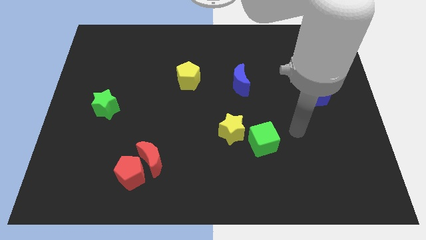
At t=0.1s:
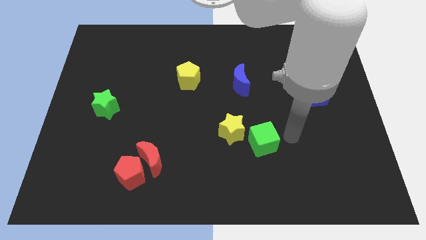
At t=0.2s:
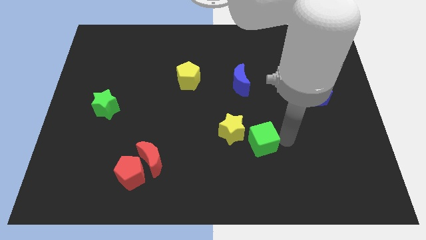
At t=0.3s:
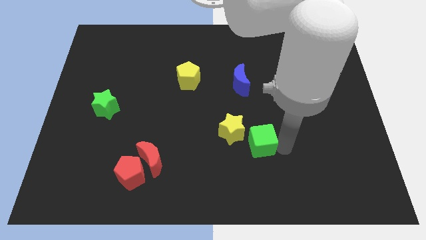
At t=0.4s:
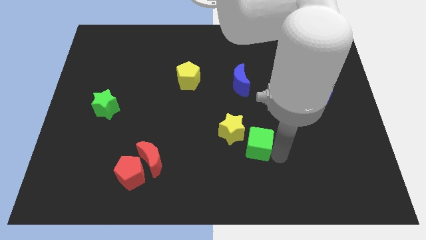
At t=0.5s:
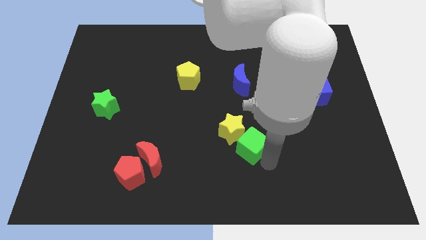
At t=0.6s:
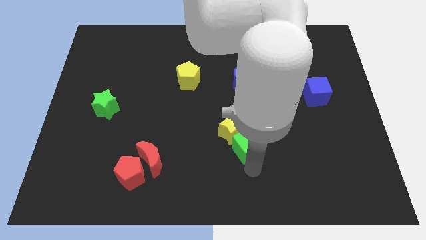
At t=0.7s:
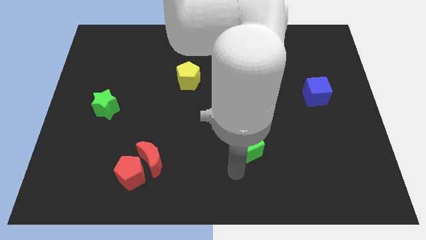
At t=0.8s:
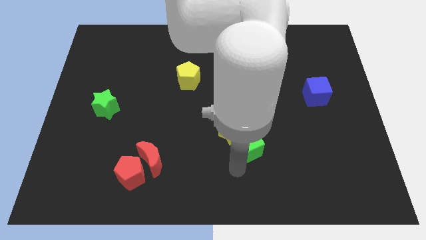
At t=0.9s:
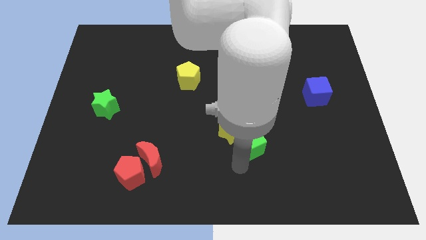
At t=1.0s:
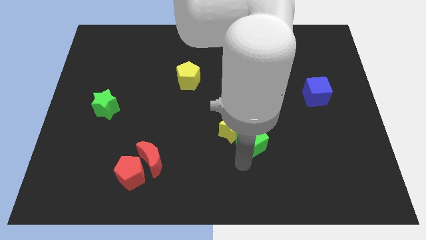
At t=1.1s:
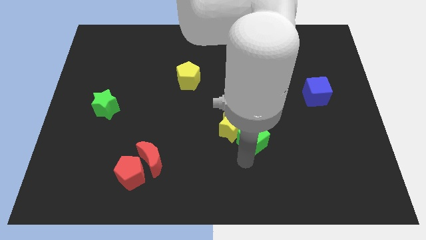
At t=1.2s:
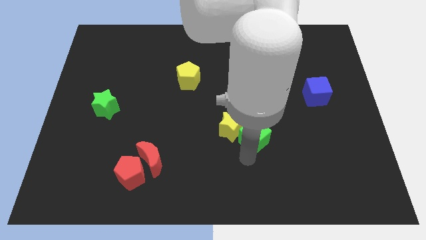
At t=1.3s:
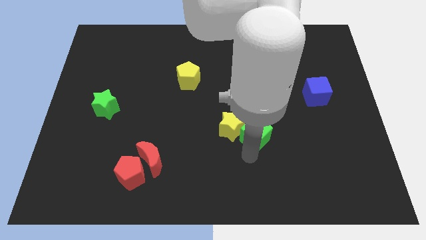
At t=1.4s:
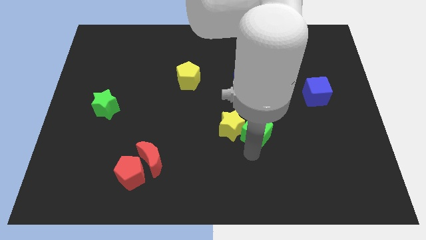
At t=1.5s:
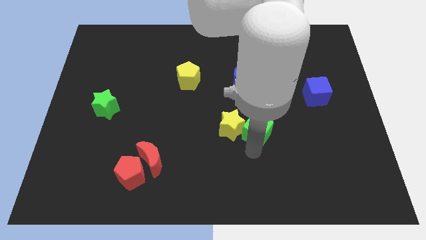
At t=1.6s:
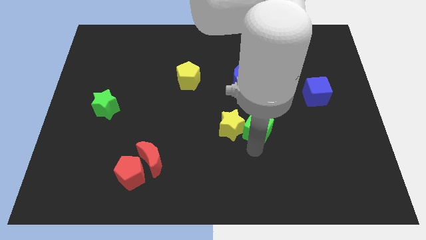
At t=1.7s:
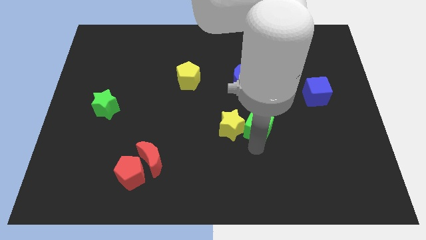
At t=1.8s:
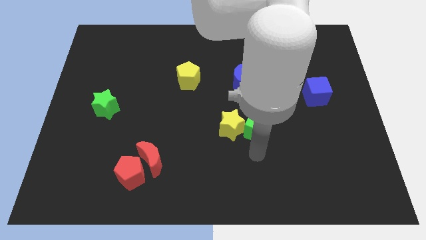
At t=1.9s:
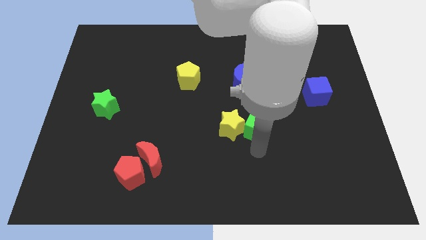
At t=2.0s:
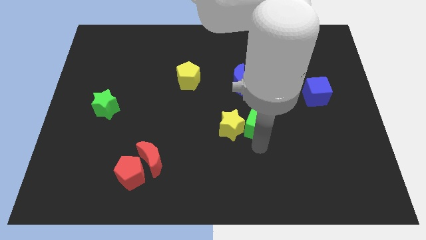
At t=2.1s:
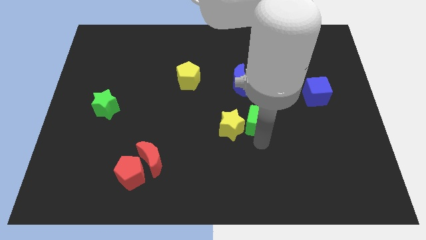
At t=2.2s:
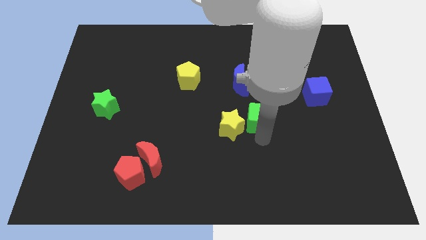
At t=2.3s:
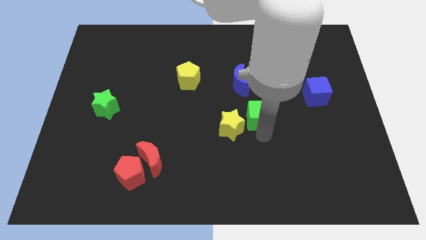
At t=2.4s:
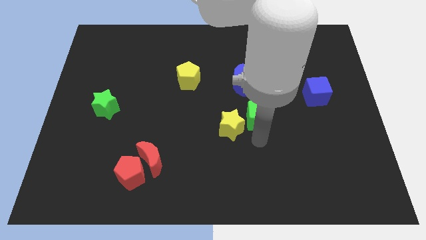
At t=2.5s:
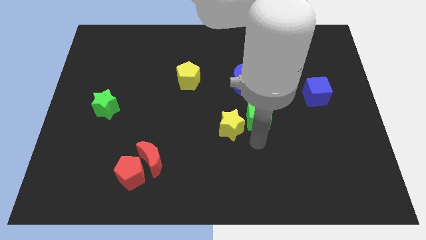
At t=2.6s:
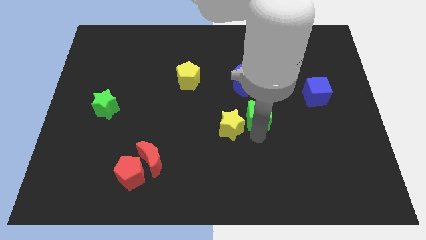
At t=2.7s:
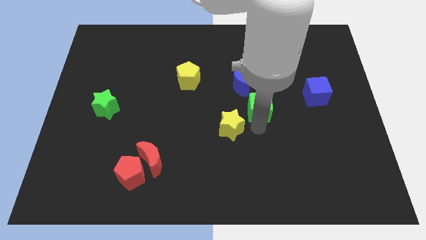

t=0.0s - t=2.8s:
slightly slide the green cube up

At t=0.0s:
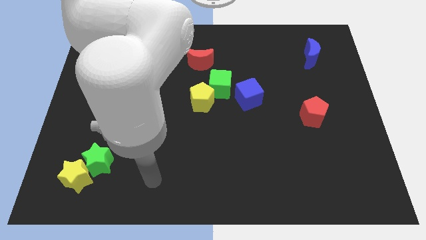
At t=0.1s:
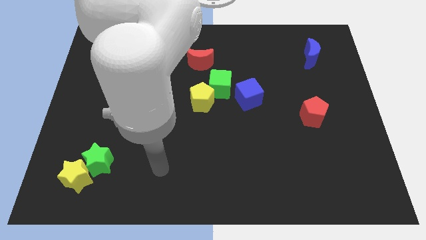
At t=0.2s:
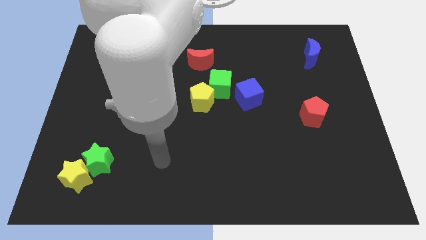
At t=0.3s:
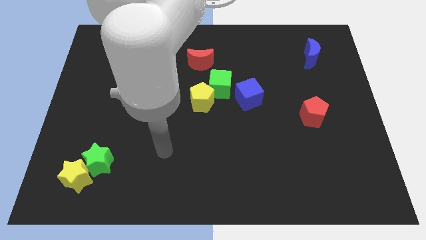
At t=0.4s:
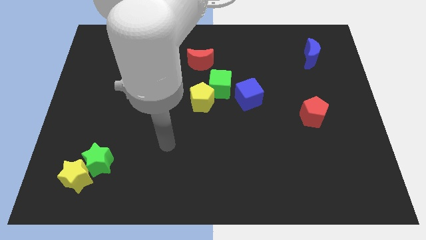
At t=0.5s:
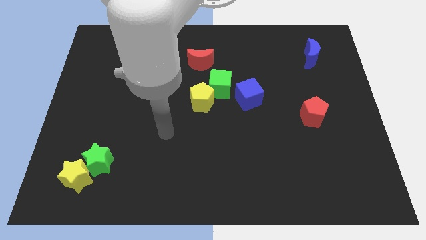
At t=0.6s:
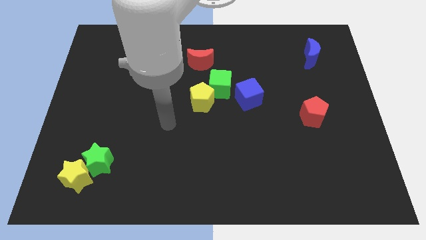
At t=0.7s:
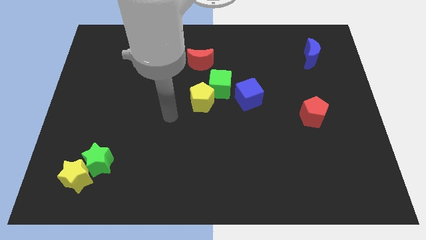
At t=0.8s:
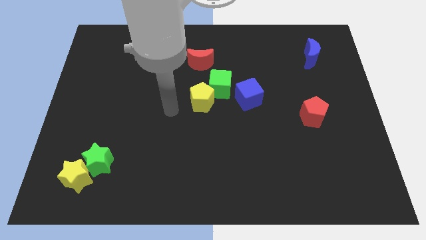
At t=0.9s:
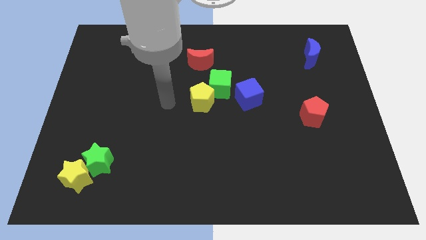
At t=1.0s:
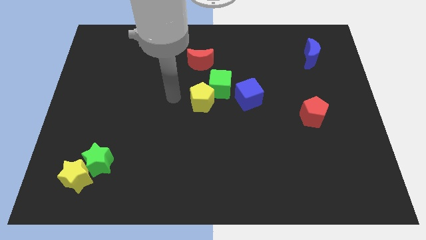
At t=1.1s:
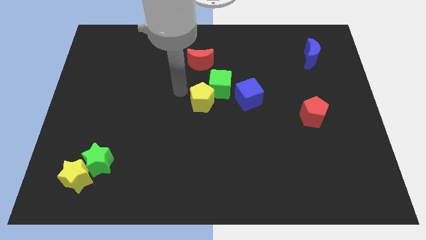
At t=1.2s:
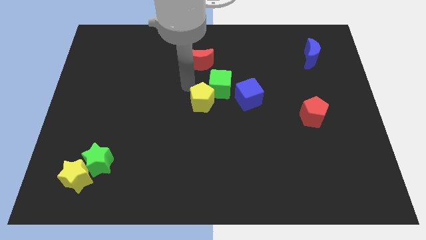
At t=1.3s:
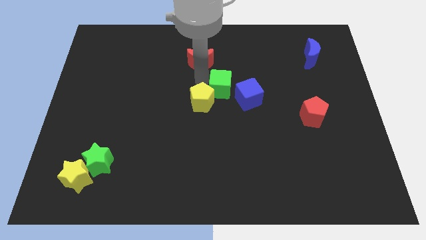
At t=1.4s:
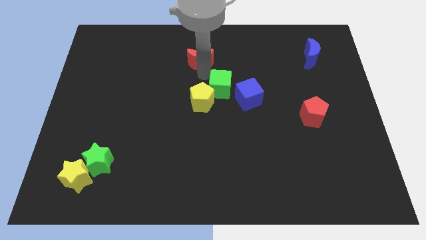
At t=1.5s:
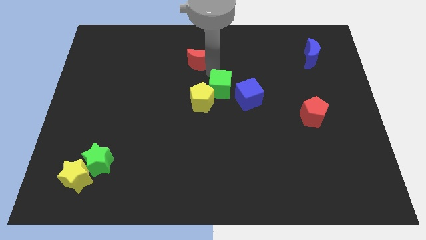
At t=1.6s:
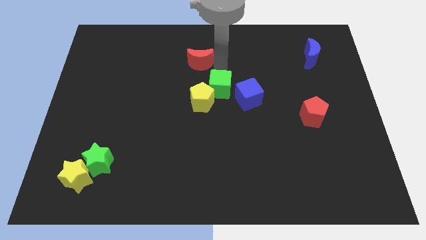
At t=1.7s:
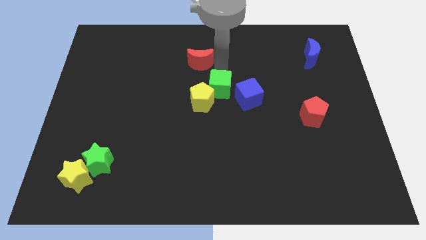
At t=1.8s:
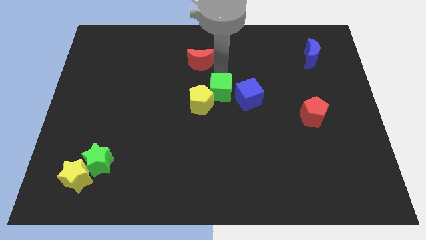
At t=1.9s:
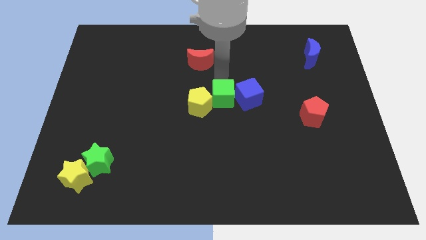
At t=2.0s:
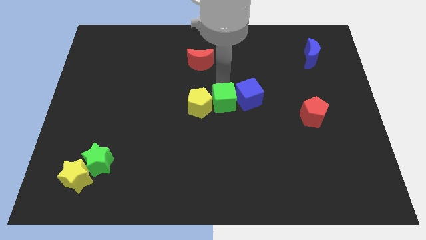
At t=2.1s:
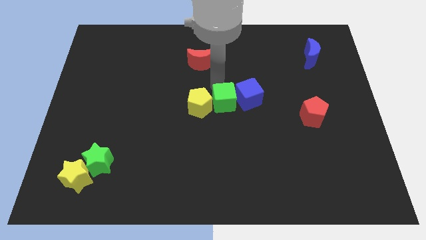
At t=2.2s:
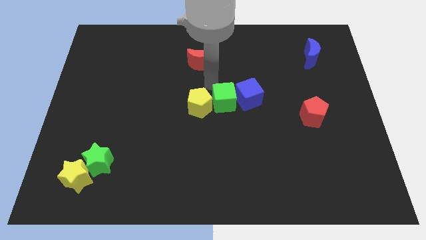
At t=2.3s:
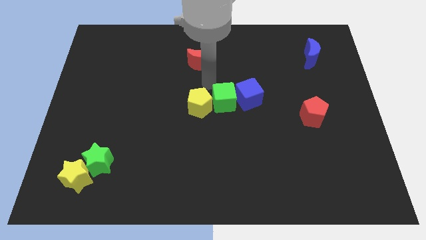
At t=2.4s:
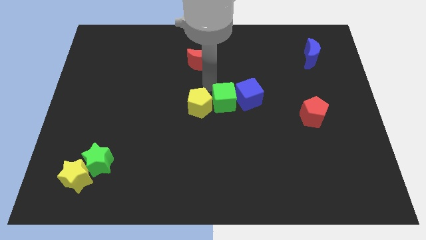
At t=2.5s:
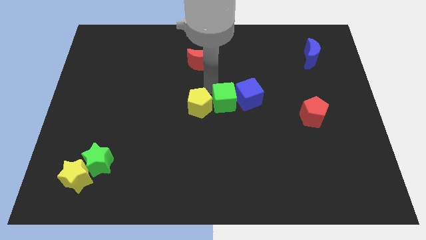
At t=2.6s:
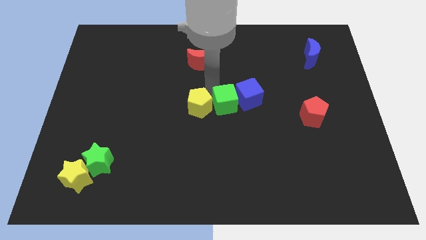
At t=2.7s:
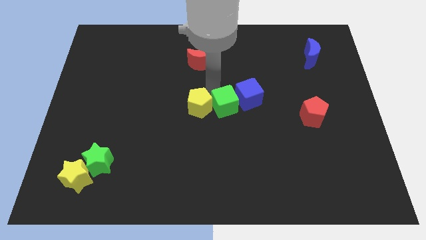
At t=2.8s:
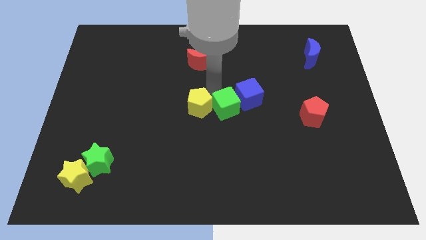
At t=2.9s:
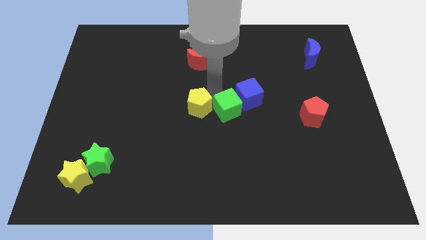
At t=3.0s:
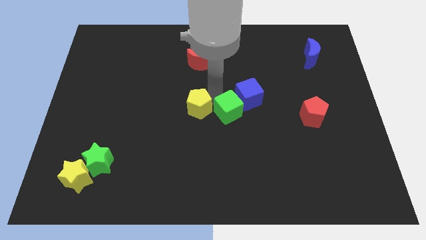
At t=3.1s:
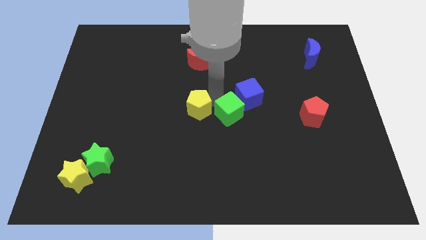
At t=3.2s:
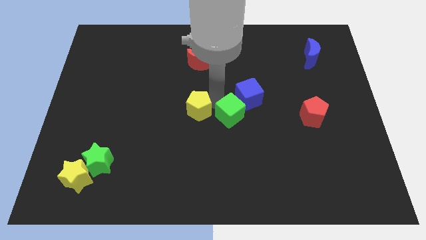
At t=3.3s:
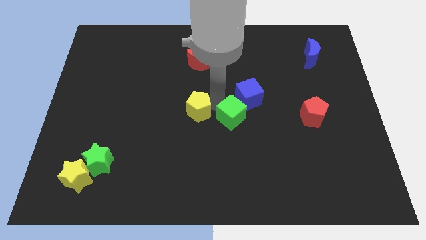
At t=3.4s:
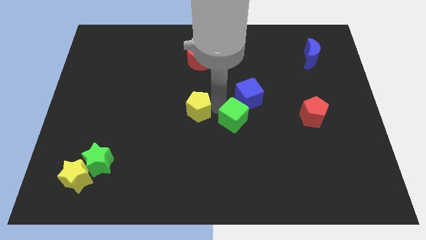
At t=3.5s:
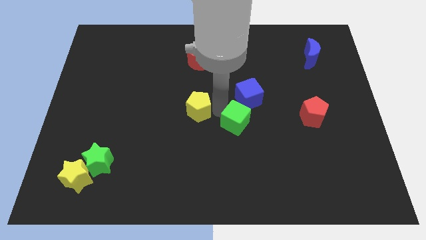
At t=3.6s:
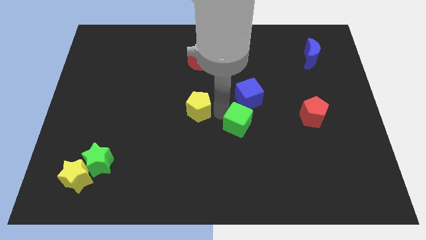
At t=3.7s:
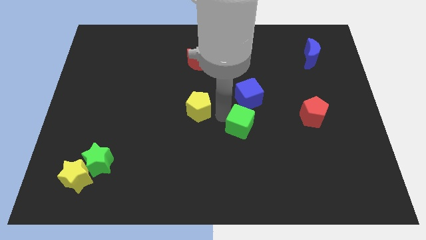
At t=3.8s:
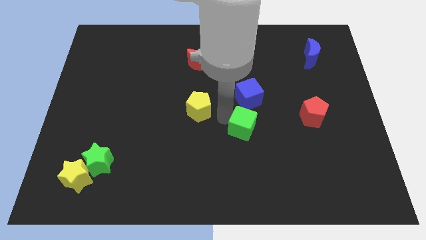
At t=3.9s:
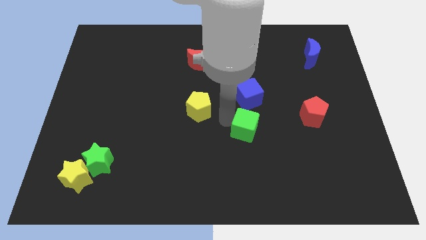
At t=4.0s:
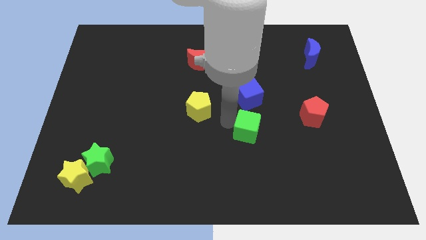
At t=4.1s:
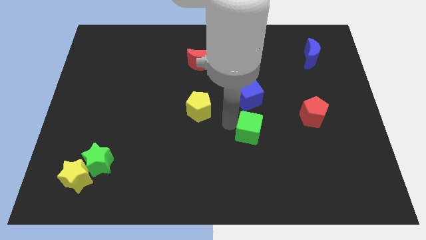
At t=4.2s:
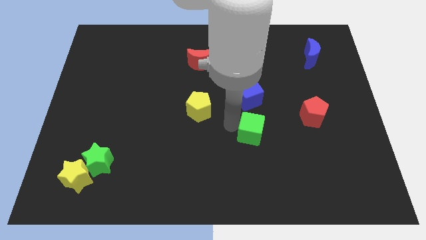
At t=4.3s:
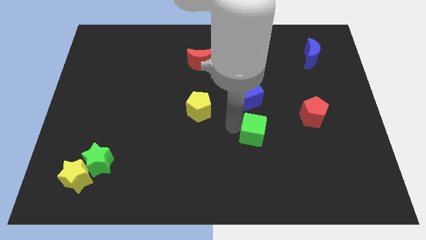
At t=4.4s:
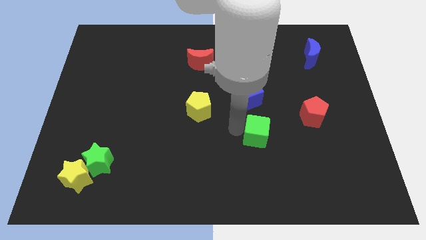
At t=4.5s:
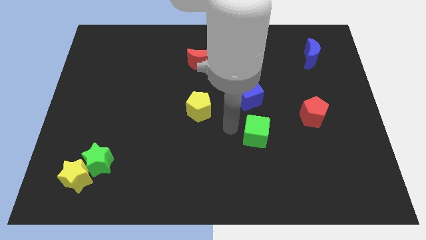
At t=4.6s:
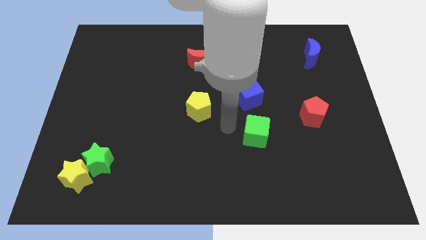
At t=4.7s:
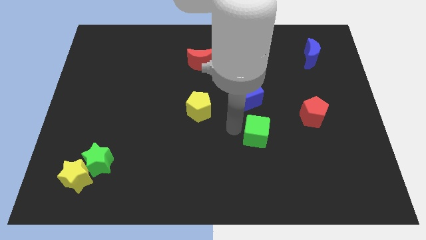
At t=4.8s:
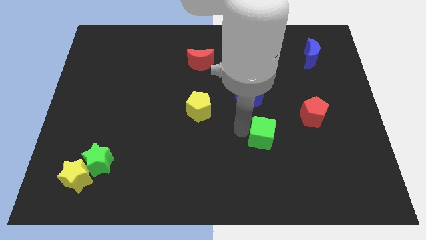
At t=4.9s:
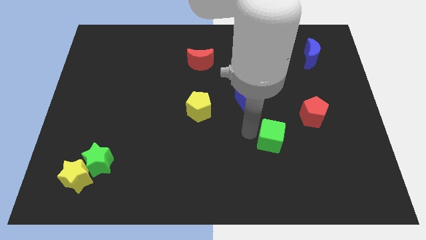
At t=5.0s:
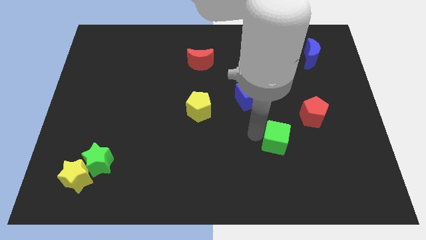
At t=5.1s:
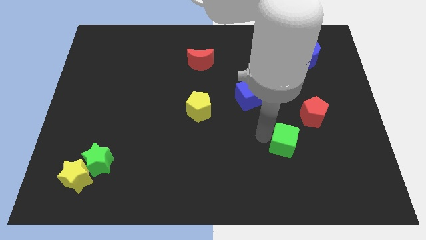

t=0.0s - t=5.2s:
slide the green cube down and to the right diagonally

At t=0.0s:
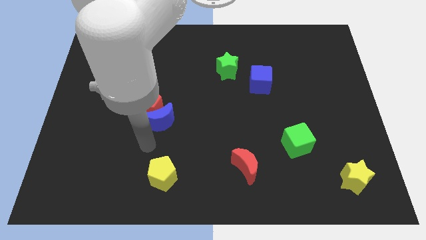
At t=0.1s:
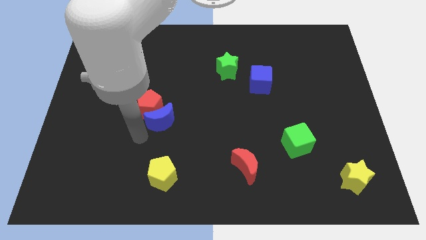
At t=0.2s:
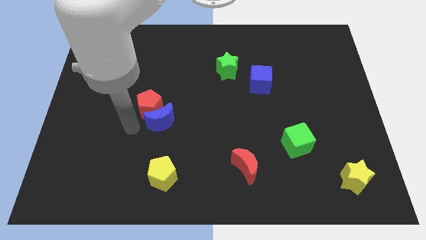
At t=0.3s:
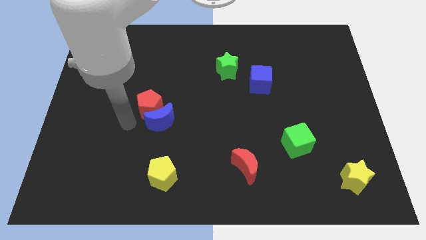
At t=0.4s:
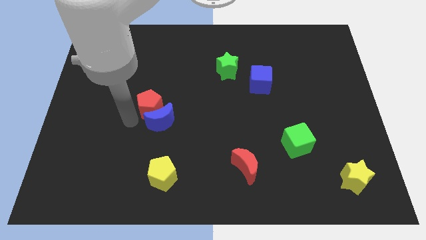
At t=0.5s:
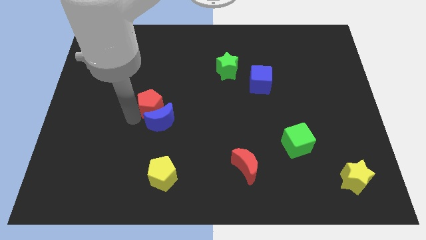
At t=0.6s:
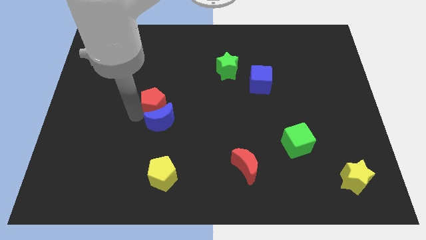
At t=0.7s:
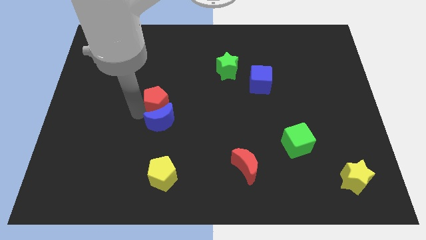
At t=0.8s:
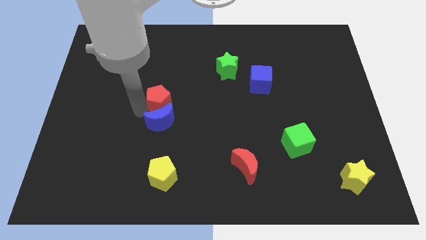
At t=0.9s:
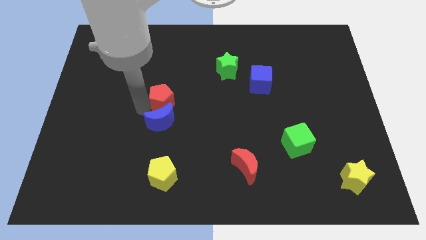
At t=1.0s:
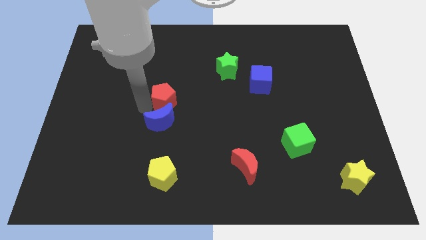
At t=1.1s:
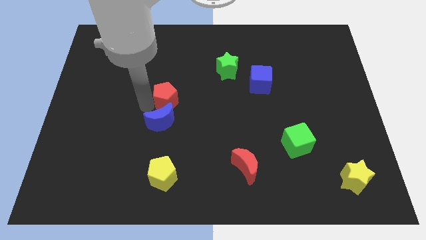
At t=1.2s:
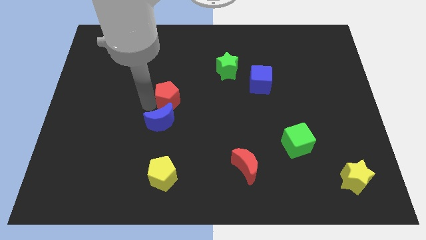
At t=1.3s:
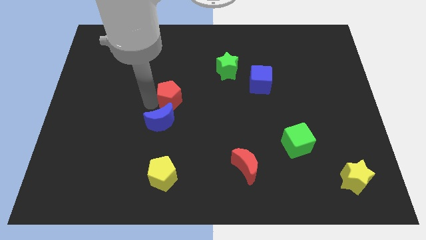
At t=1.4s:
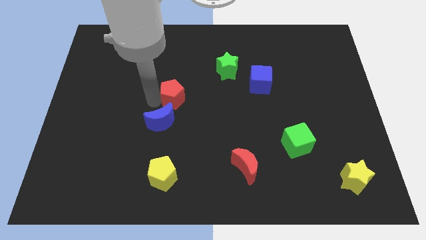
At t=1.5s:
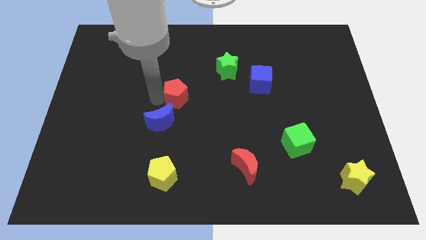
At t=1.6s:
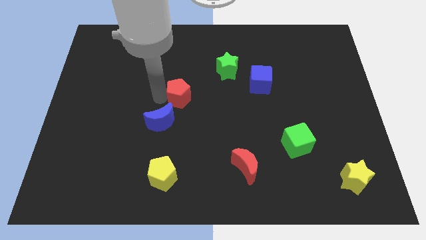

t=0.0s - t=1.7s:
push the red pentagon diagonally upwards and right slightly
